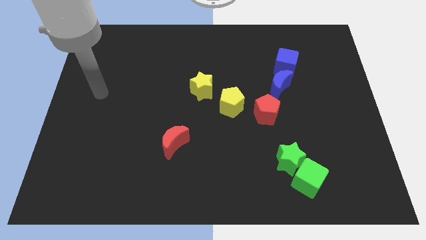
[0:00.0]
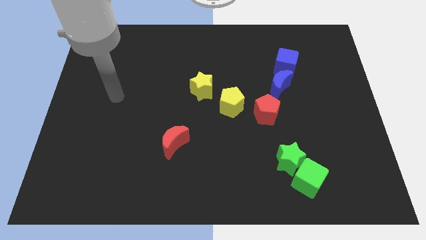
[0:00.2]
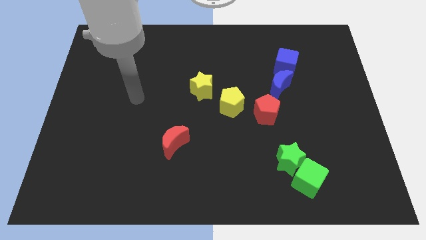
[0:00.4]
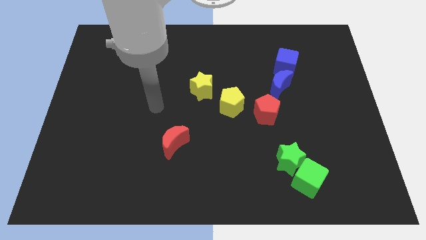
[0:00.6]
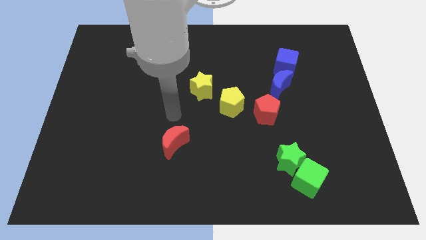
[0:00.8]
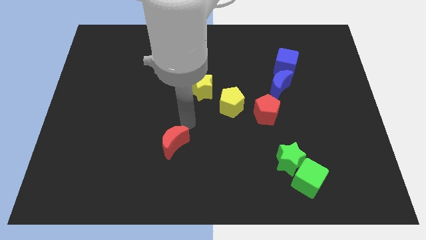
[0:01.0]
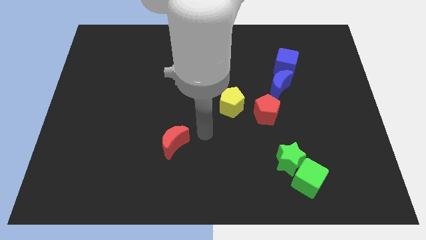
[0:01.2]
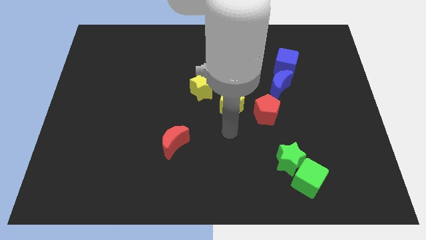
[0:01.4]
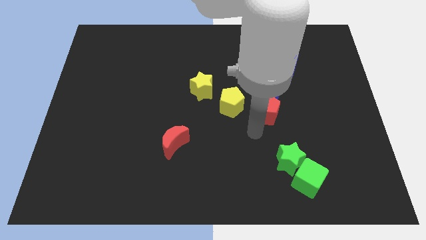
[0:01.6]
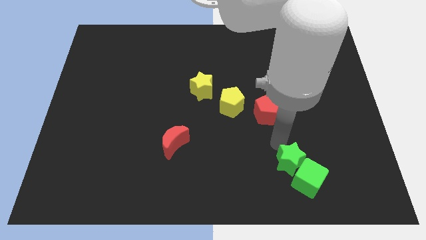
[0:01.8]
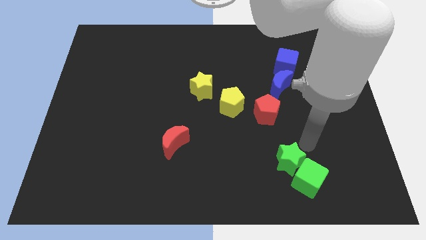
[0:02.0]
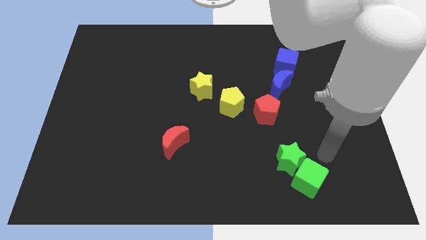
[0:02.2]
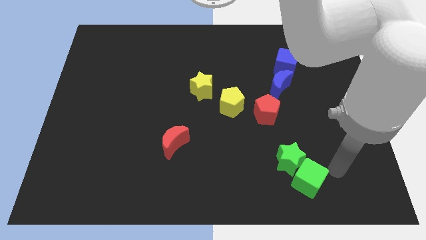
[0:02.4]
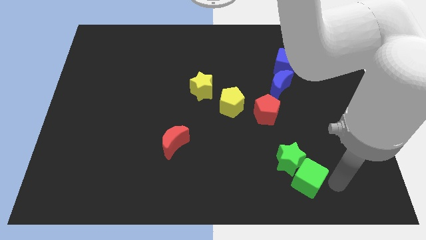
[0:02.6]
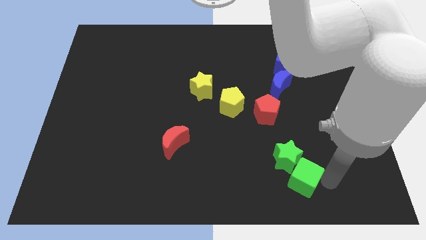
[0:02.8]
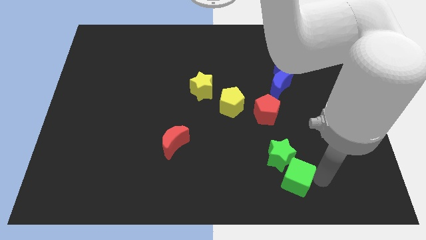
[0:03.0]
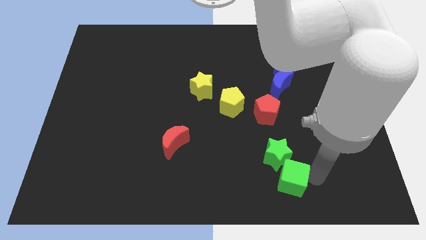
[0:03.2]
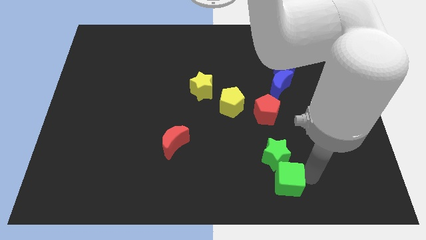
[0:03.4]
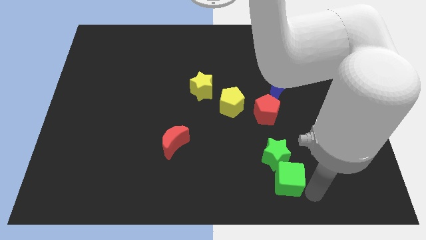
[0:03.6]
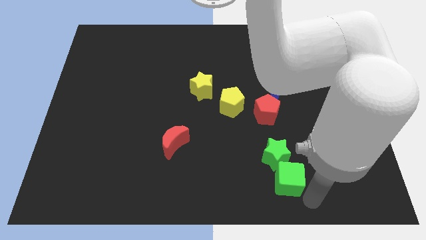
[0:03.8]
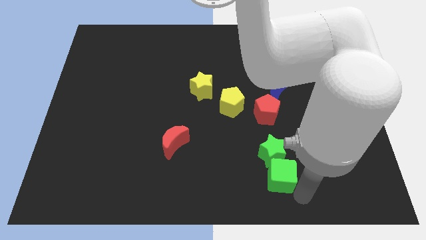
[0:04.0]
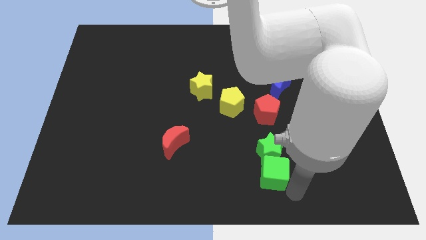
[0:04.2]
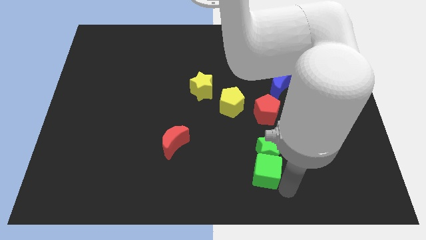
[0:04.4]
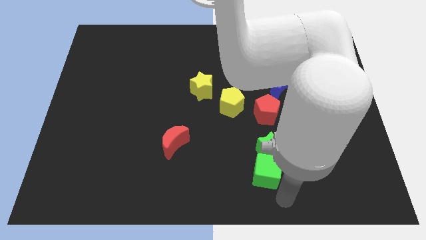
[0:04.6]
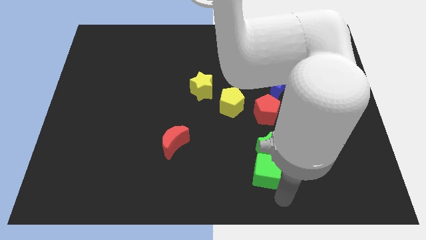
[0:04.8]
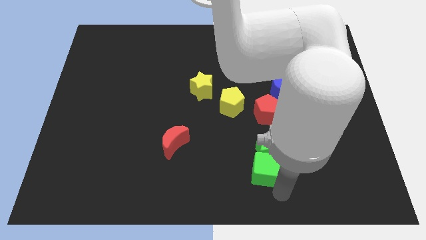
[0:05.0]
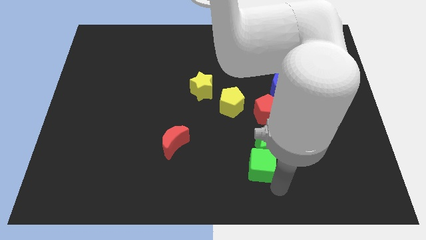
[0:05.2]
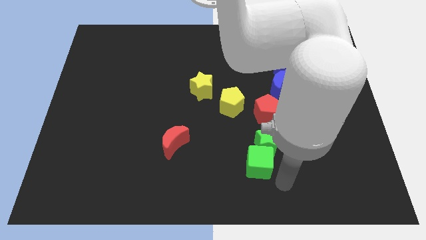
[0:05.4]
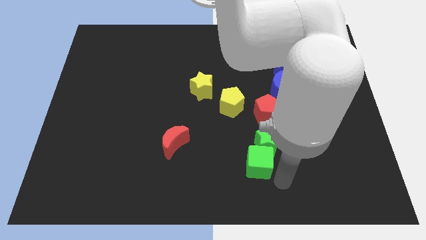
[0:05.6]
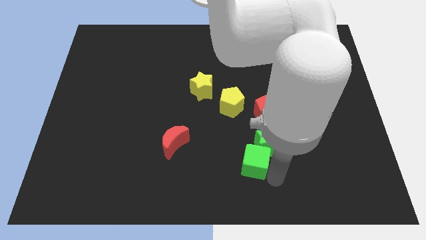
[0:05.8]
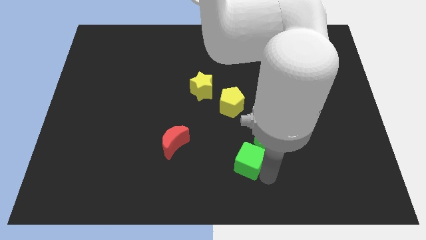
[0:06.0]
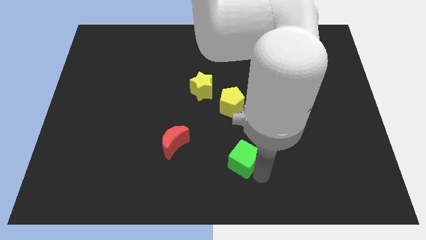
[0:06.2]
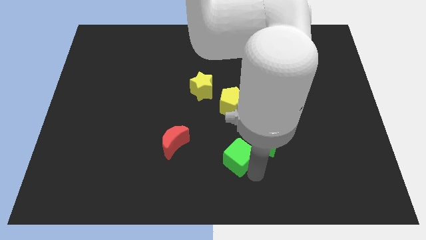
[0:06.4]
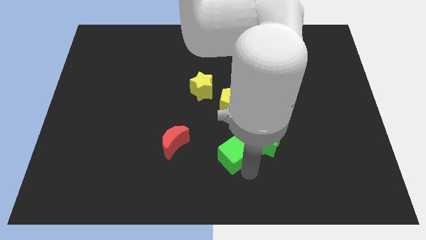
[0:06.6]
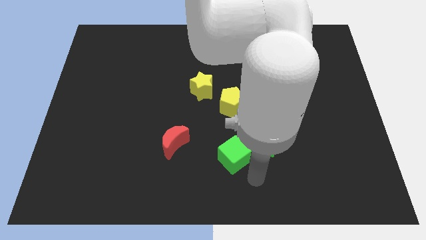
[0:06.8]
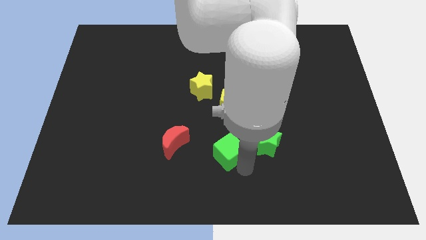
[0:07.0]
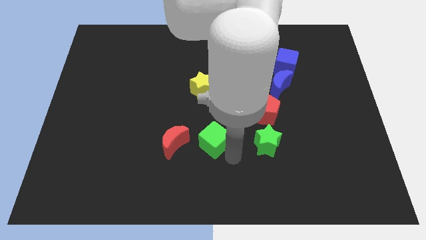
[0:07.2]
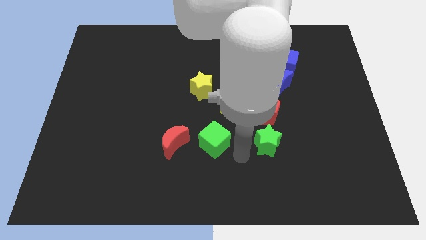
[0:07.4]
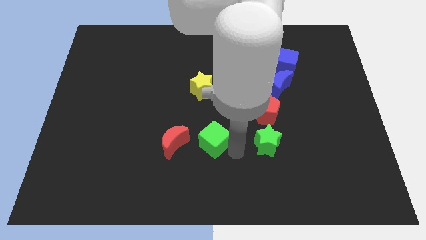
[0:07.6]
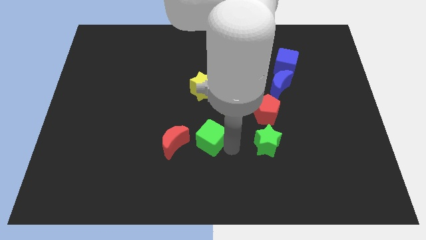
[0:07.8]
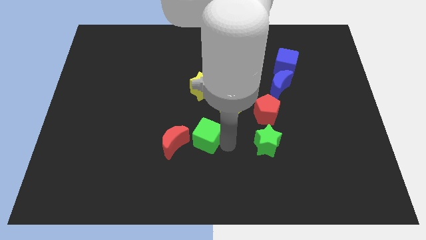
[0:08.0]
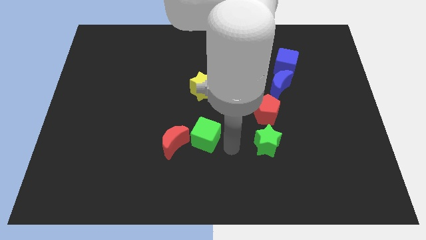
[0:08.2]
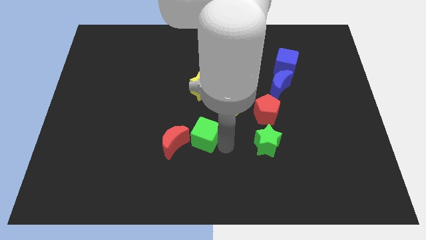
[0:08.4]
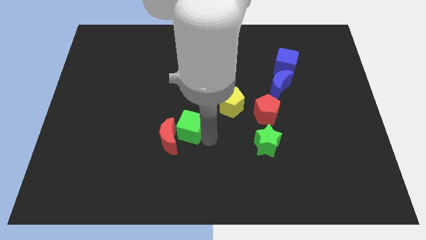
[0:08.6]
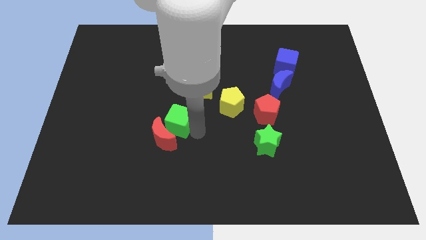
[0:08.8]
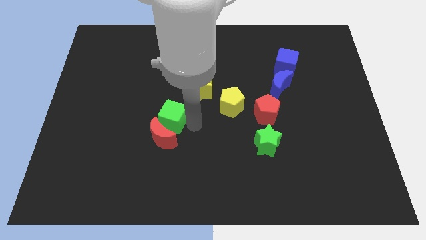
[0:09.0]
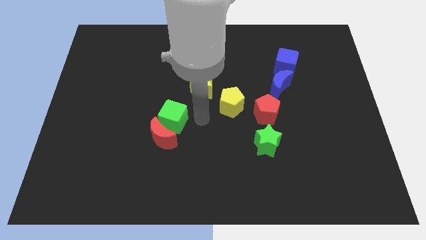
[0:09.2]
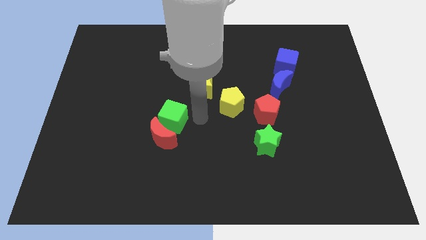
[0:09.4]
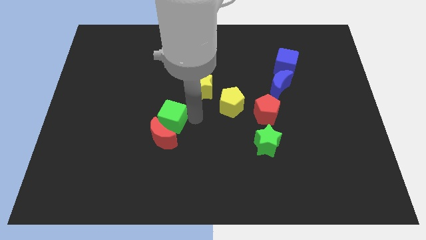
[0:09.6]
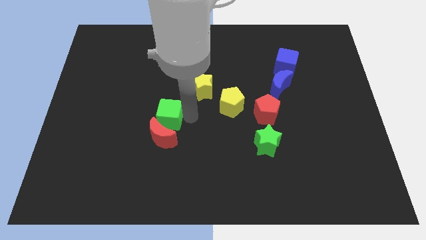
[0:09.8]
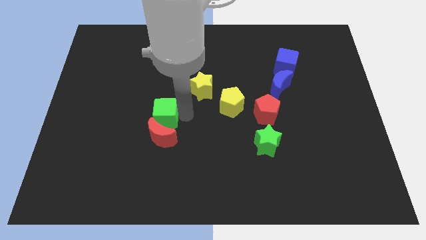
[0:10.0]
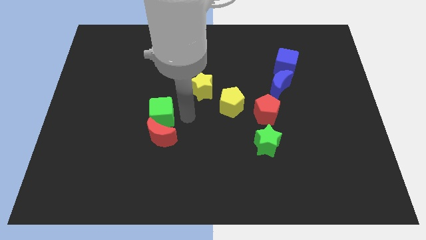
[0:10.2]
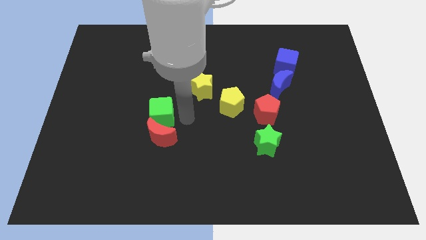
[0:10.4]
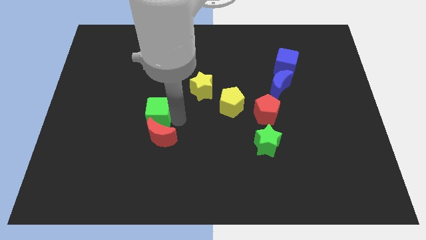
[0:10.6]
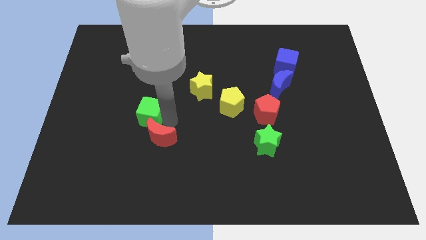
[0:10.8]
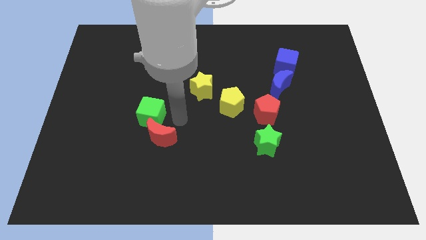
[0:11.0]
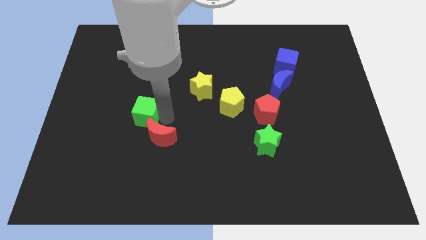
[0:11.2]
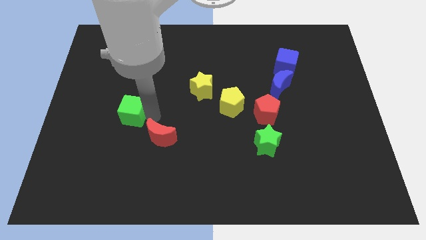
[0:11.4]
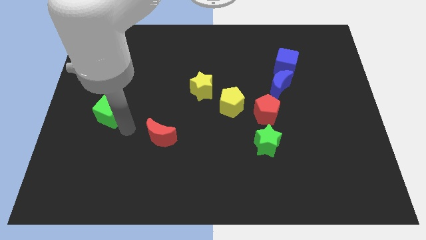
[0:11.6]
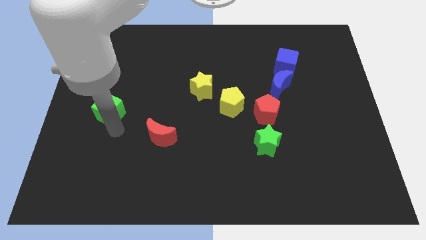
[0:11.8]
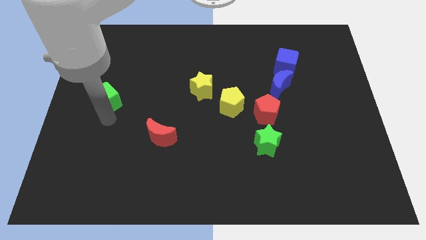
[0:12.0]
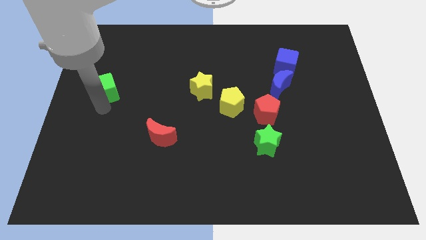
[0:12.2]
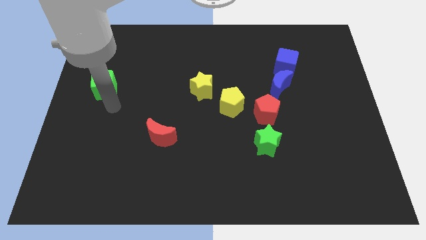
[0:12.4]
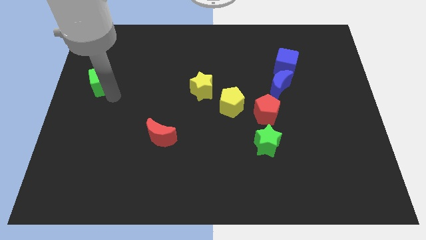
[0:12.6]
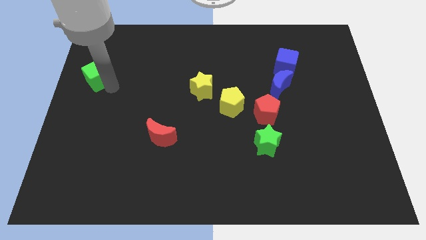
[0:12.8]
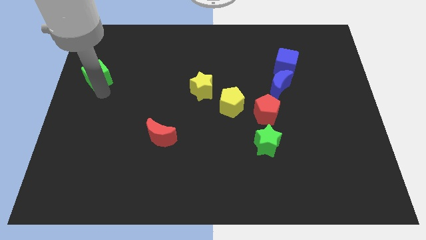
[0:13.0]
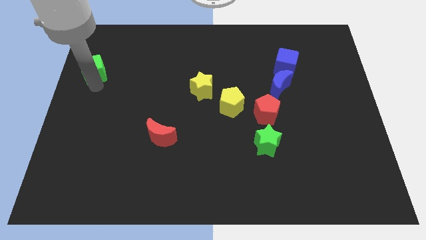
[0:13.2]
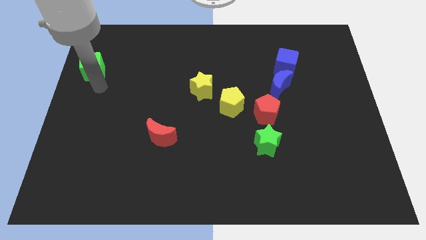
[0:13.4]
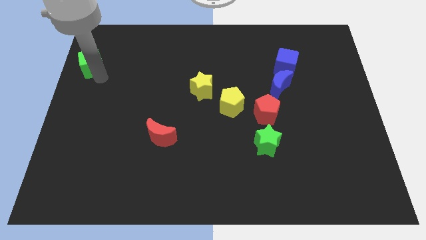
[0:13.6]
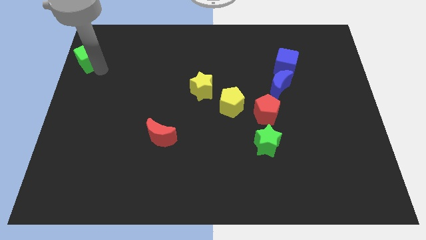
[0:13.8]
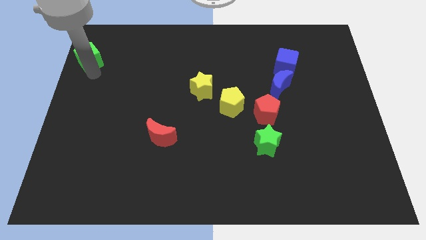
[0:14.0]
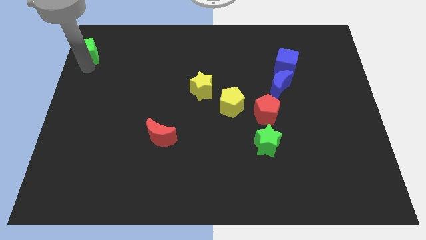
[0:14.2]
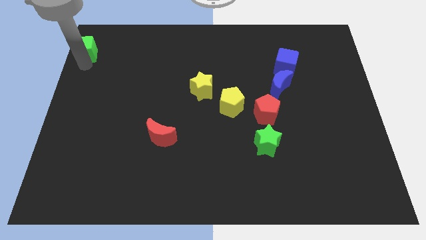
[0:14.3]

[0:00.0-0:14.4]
slide the green cube to the top left
